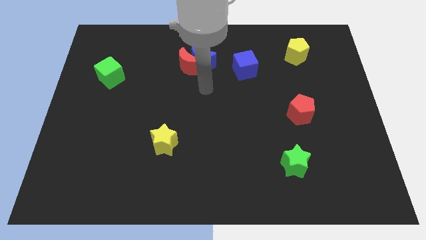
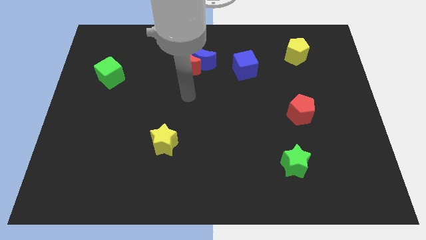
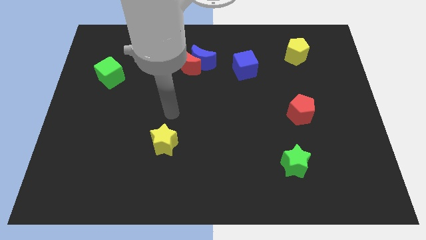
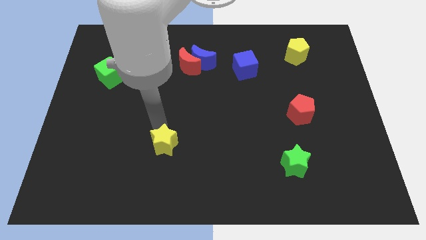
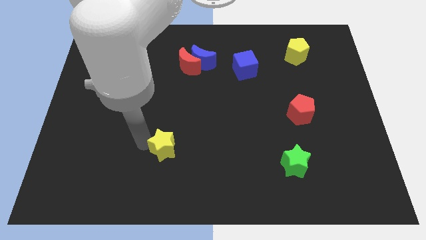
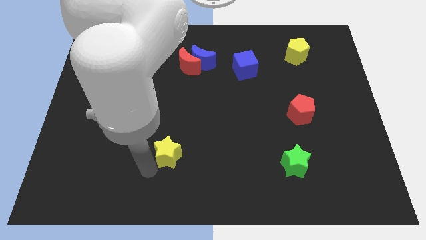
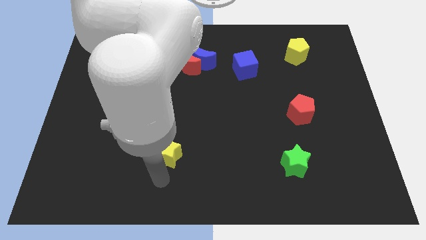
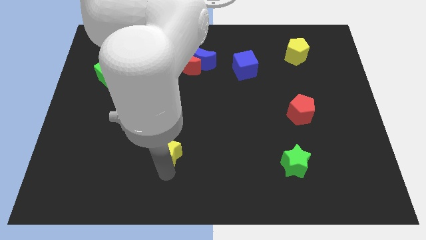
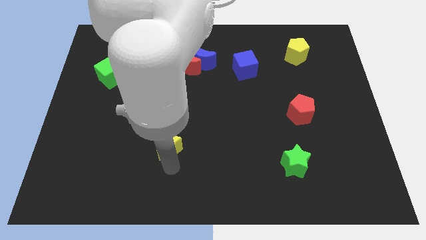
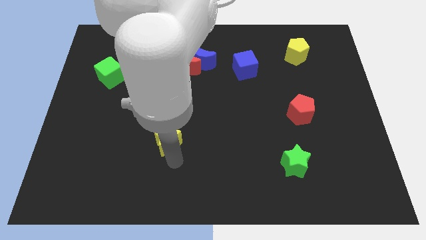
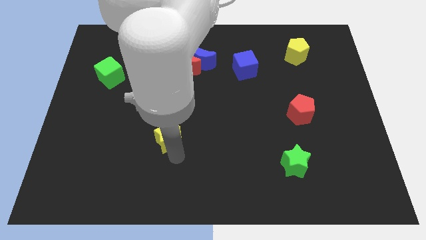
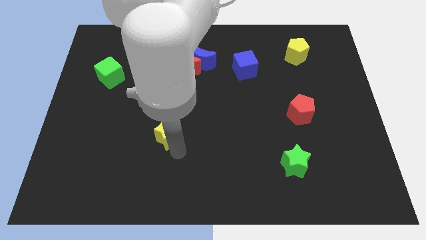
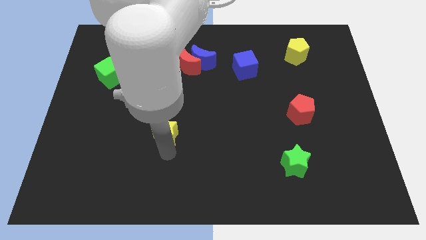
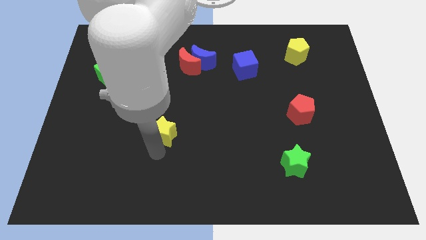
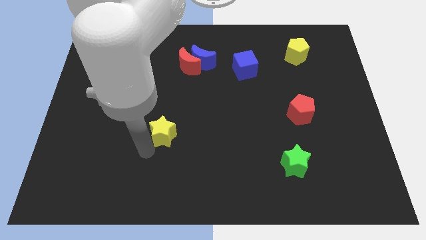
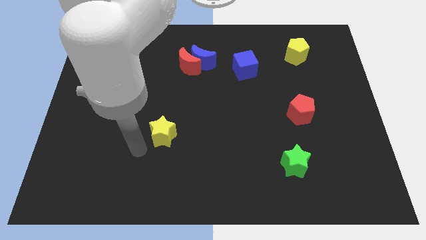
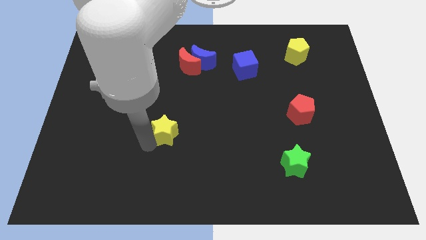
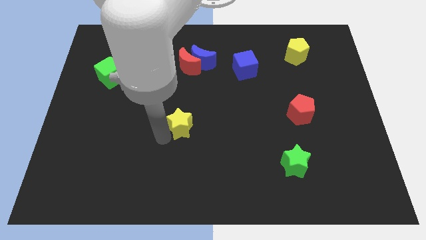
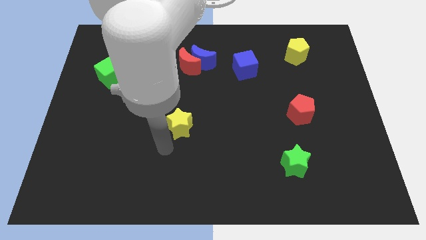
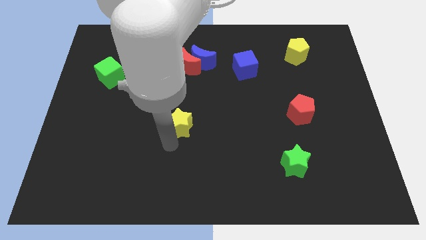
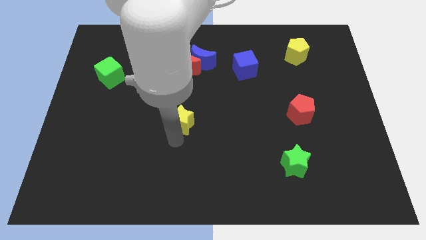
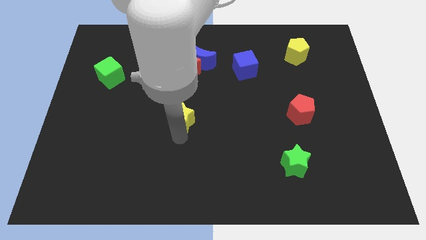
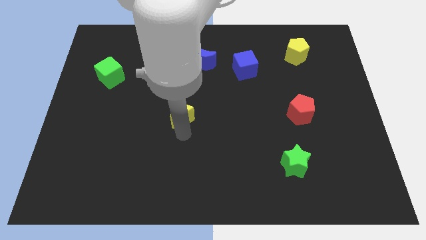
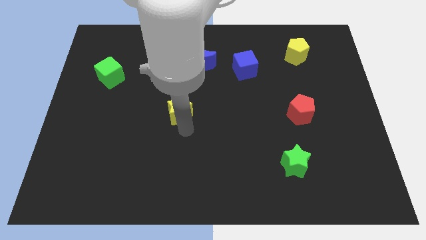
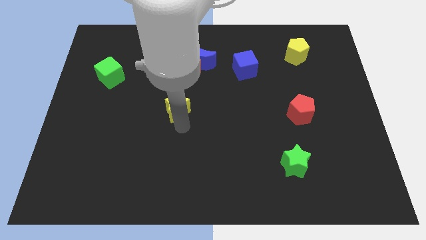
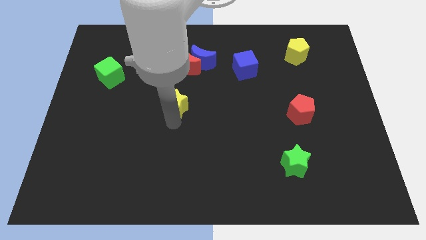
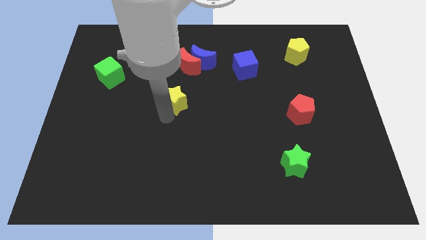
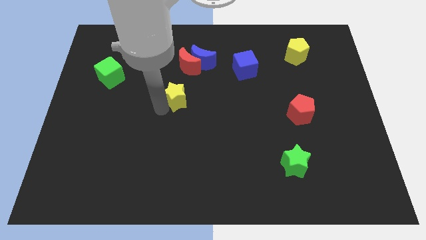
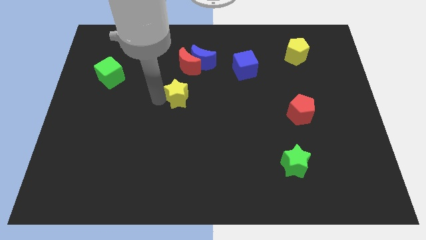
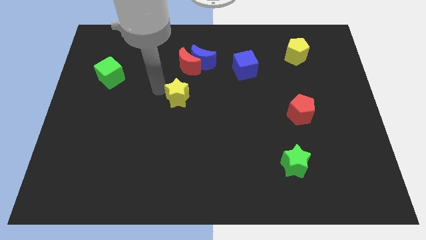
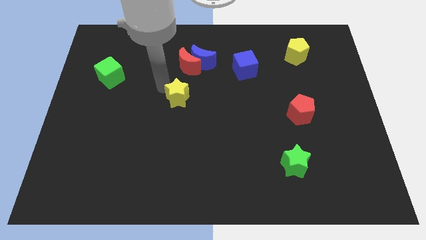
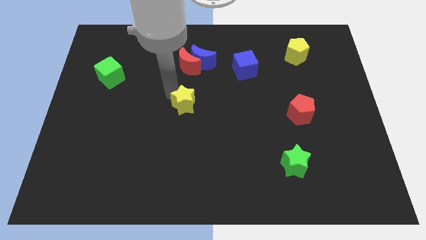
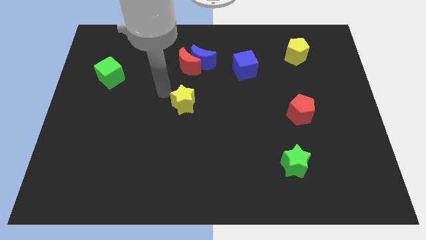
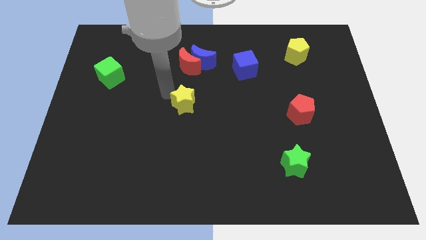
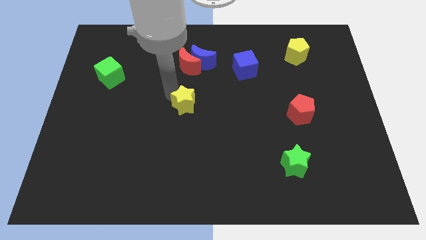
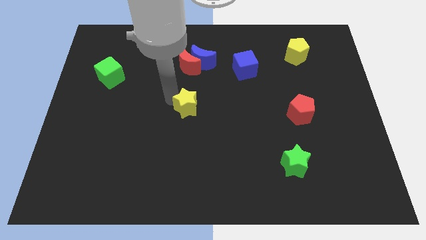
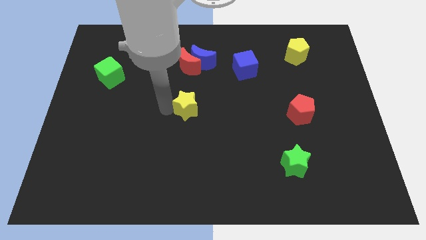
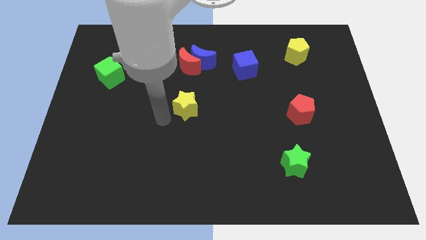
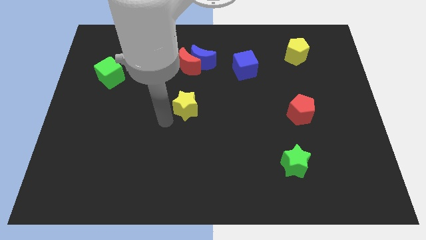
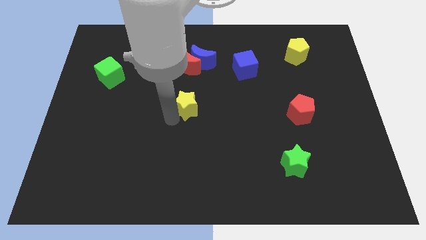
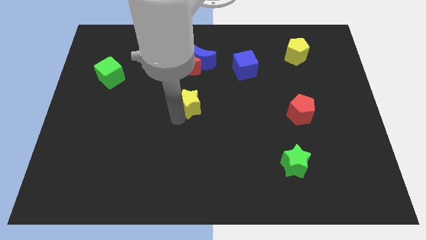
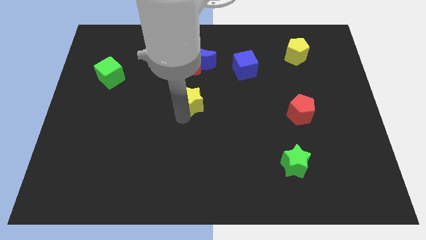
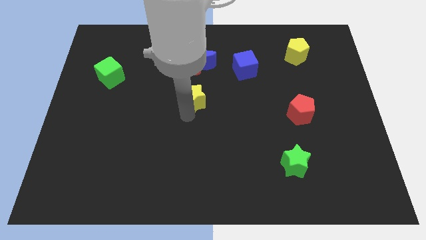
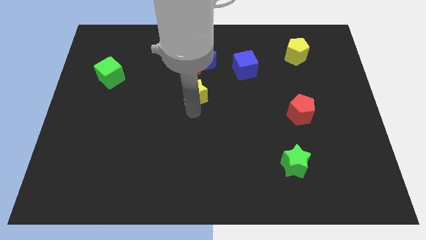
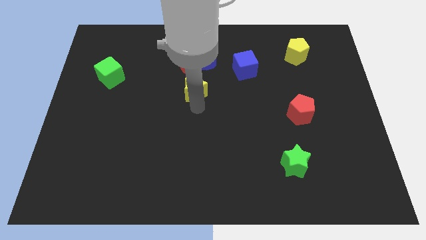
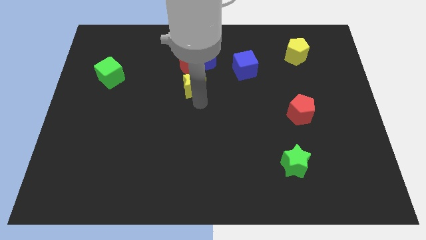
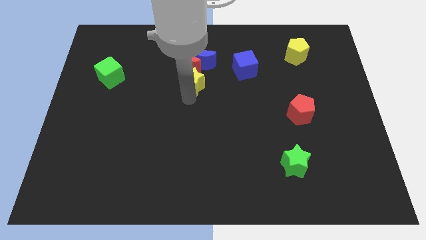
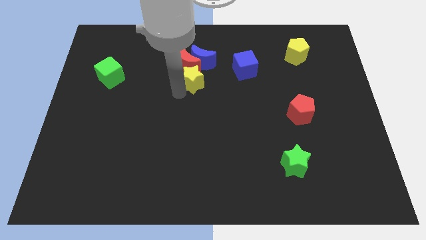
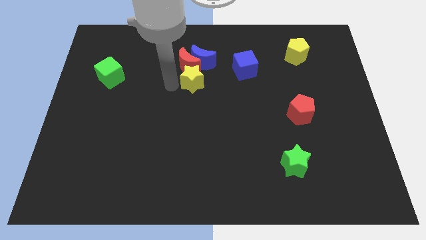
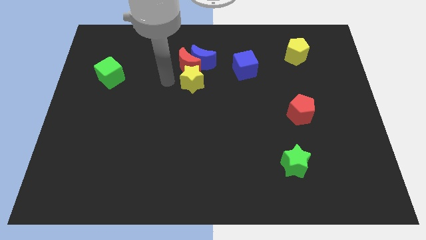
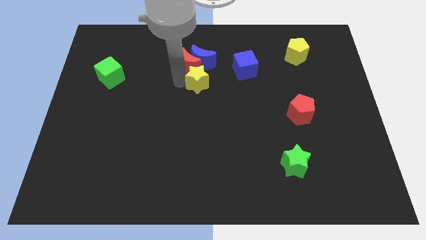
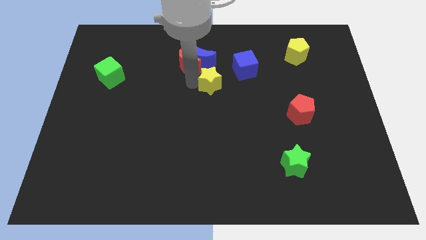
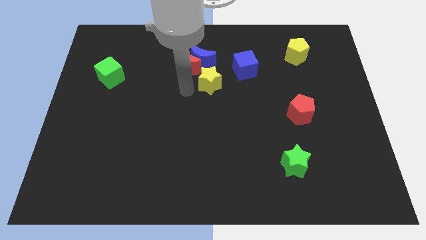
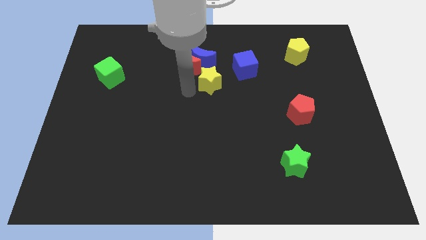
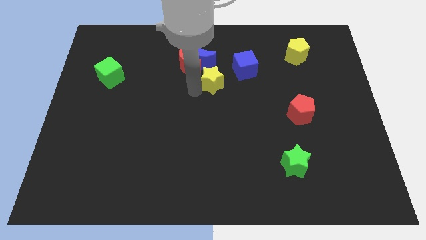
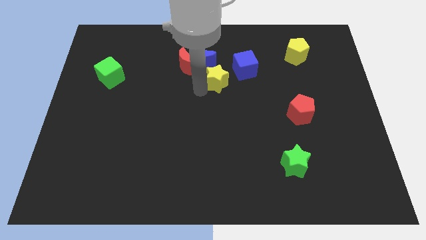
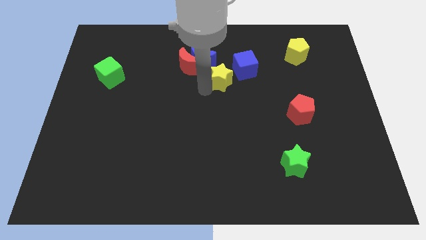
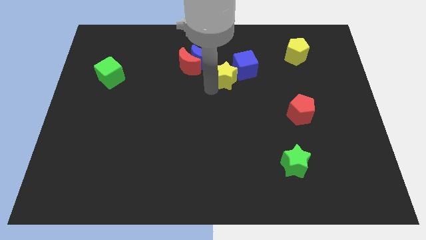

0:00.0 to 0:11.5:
move the yellow star towards the blue cube
